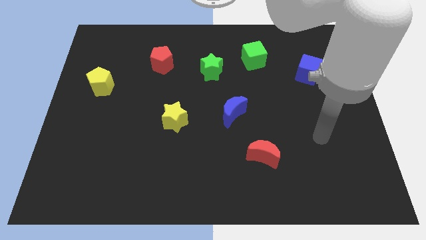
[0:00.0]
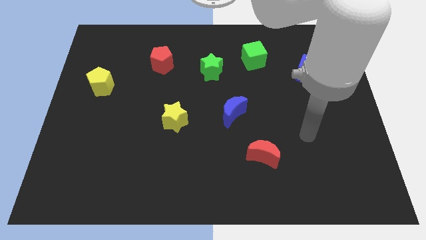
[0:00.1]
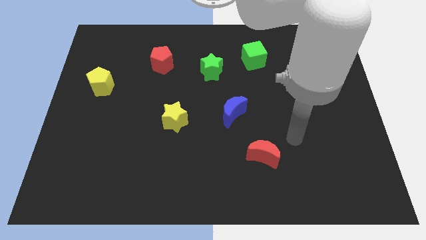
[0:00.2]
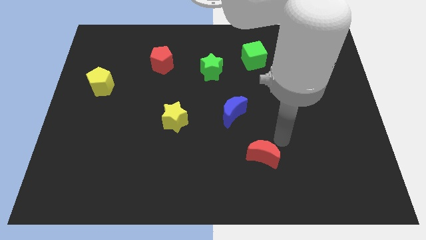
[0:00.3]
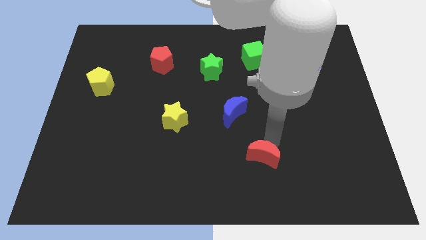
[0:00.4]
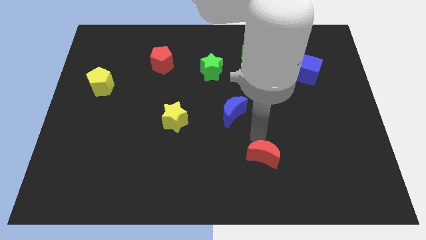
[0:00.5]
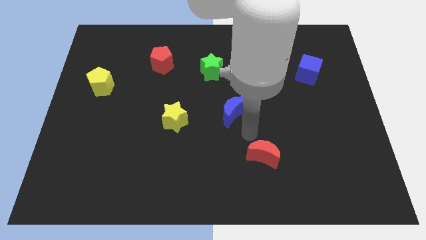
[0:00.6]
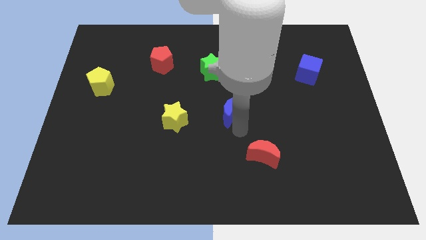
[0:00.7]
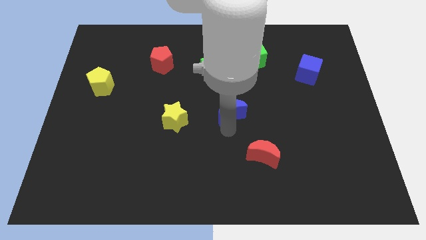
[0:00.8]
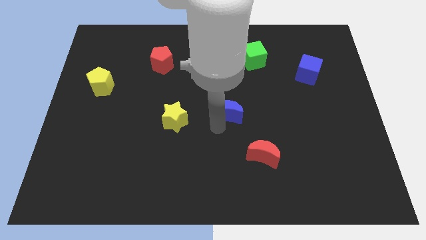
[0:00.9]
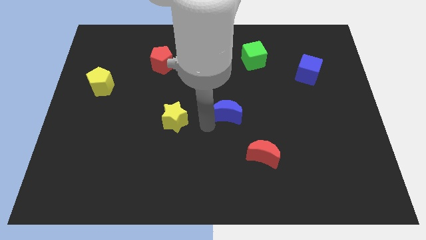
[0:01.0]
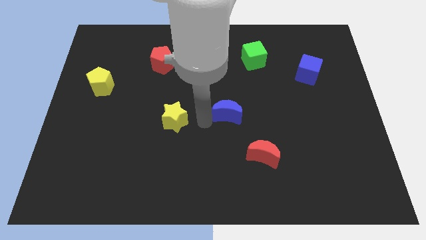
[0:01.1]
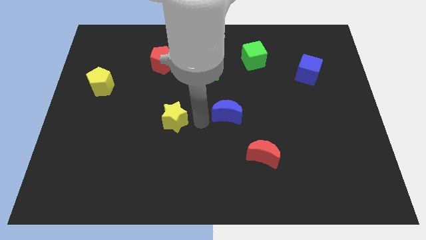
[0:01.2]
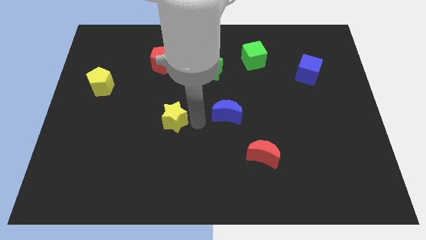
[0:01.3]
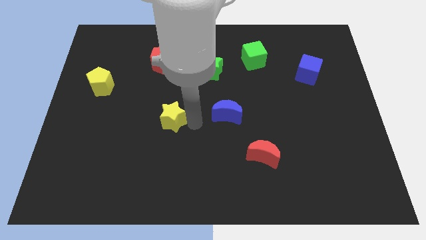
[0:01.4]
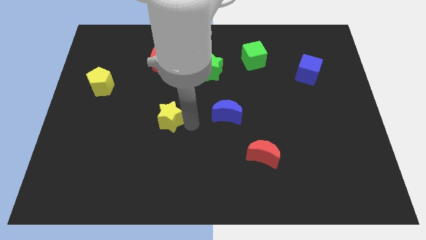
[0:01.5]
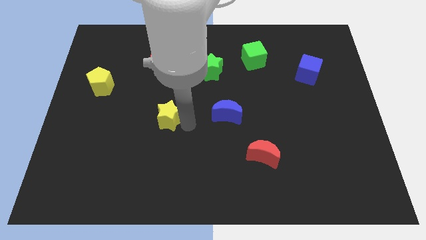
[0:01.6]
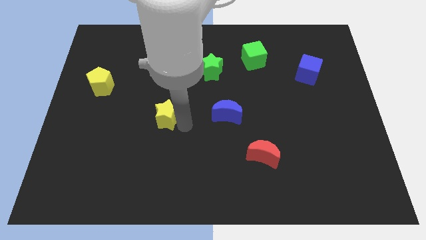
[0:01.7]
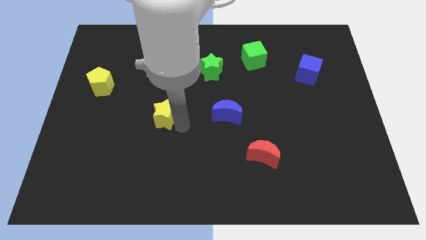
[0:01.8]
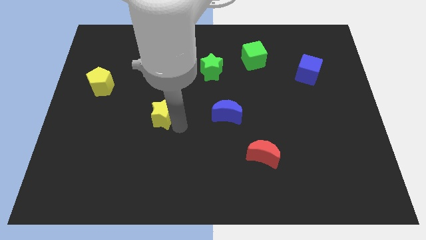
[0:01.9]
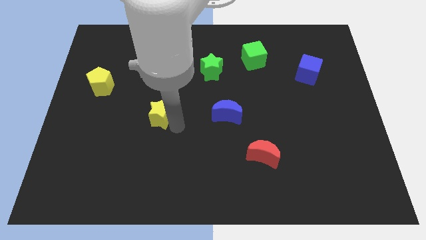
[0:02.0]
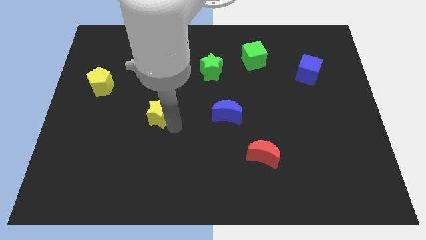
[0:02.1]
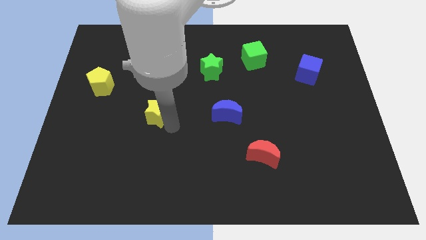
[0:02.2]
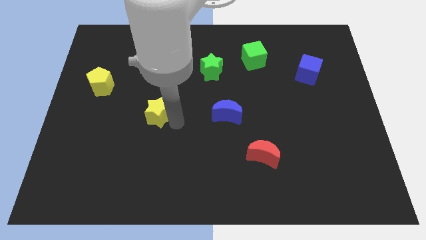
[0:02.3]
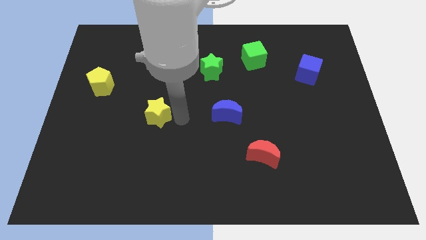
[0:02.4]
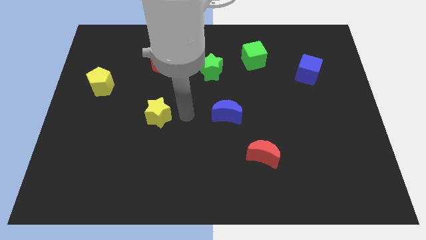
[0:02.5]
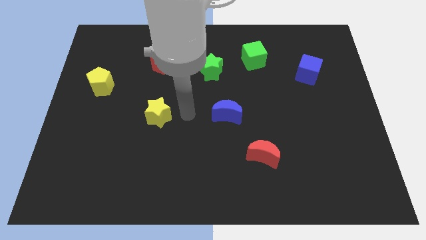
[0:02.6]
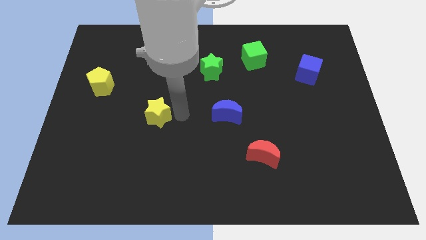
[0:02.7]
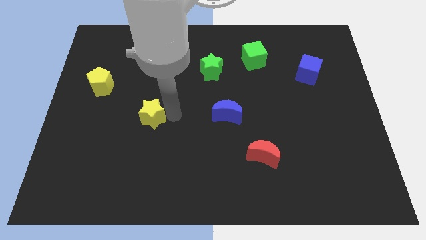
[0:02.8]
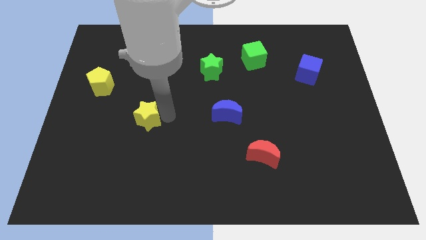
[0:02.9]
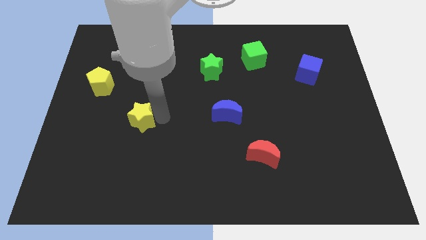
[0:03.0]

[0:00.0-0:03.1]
slightly move the yellow star to the left

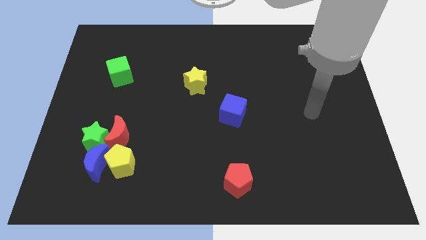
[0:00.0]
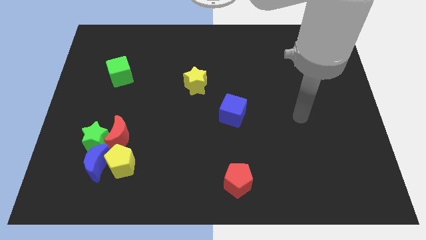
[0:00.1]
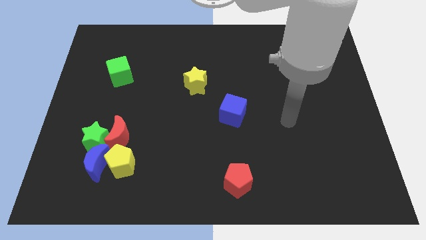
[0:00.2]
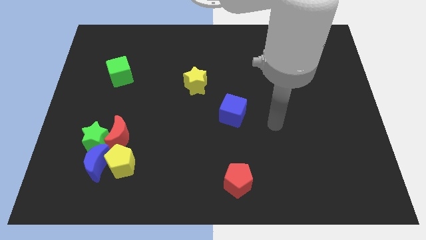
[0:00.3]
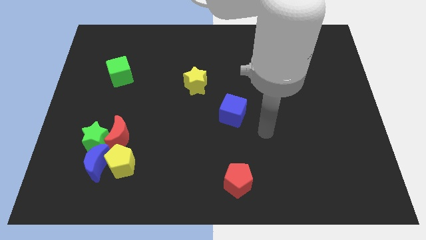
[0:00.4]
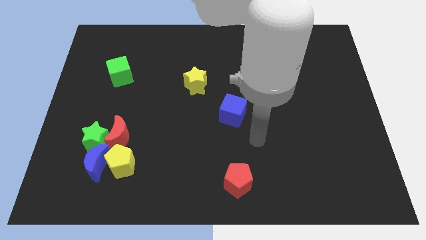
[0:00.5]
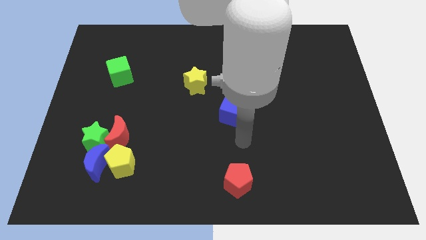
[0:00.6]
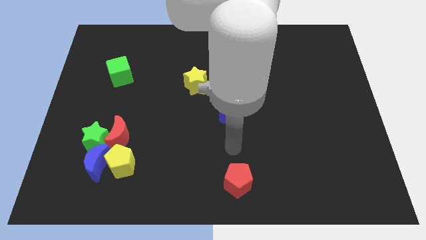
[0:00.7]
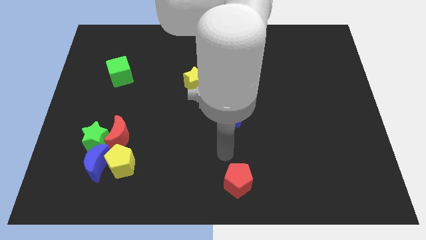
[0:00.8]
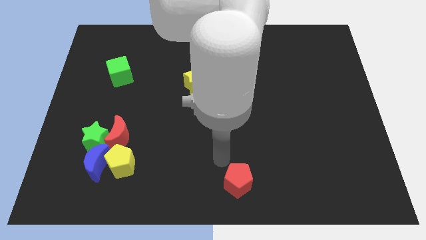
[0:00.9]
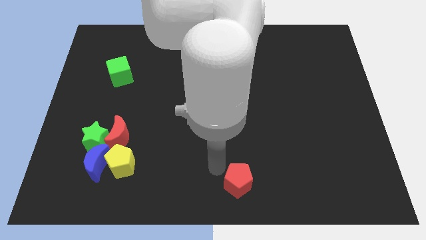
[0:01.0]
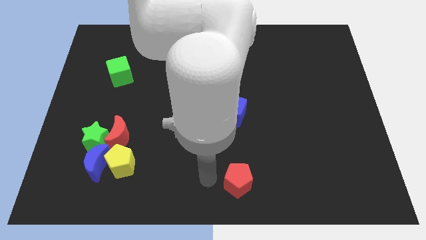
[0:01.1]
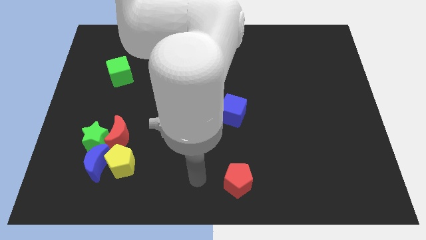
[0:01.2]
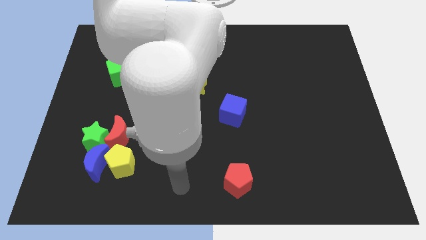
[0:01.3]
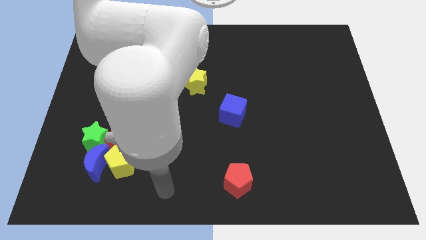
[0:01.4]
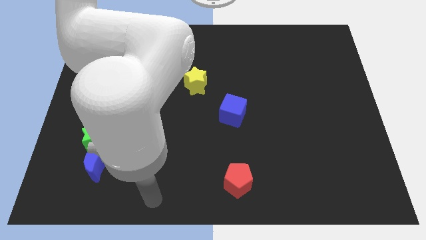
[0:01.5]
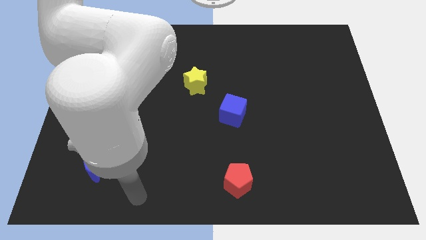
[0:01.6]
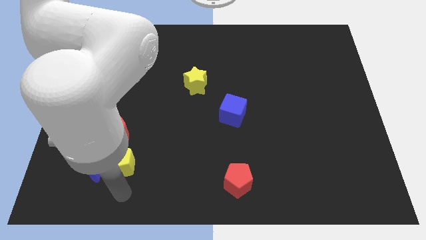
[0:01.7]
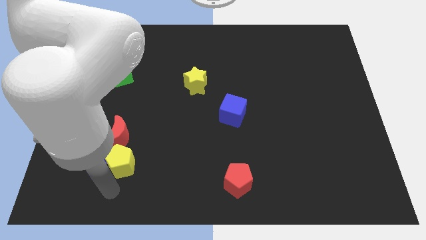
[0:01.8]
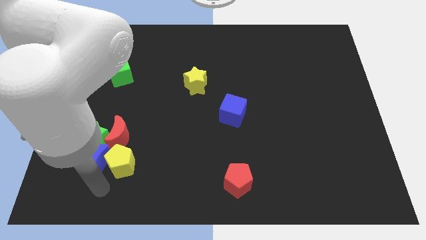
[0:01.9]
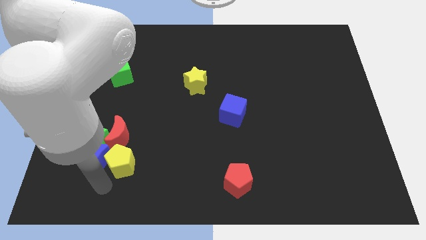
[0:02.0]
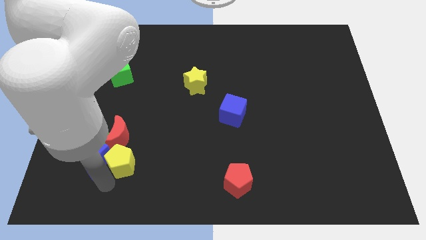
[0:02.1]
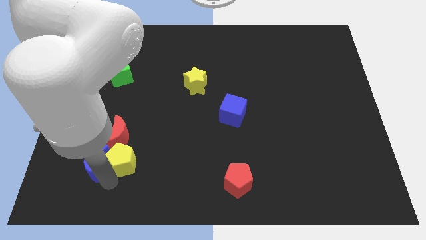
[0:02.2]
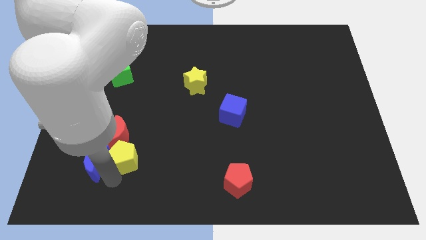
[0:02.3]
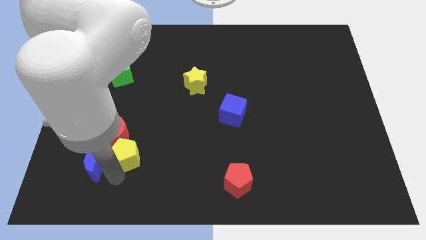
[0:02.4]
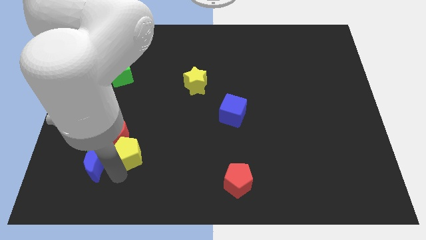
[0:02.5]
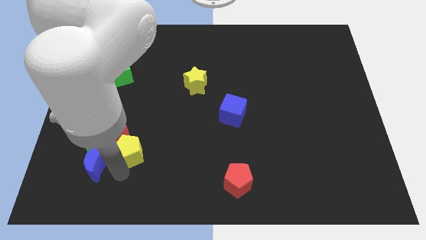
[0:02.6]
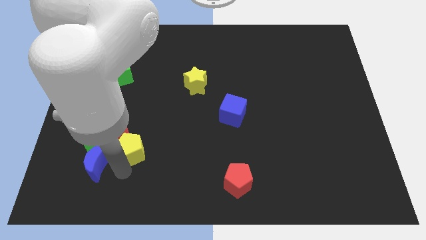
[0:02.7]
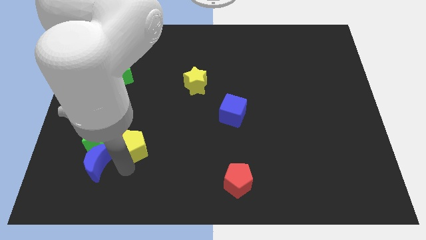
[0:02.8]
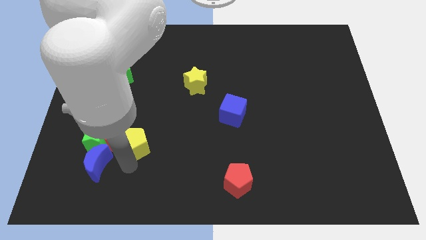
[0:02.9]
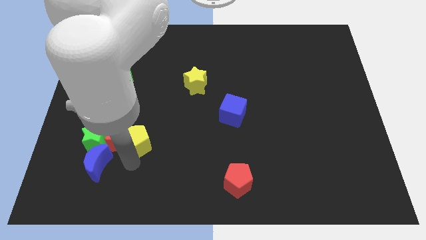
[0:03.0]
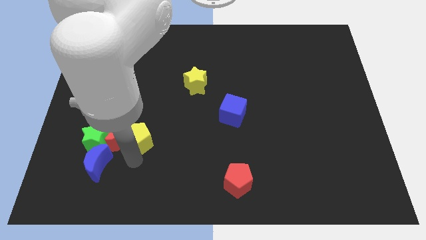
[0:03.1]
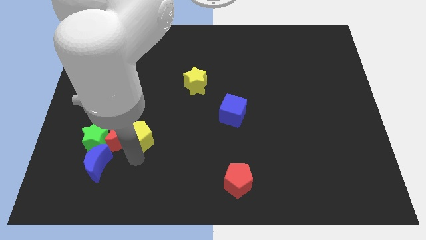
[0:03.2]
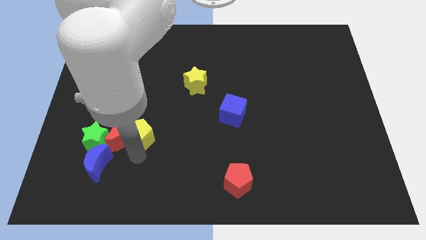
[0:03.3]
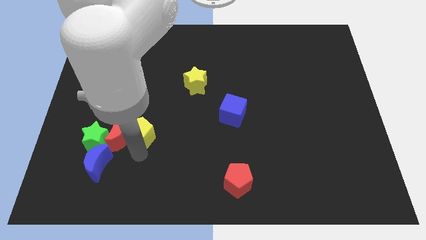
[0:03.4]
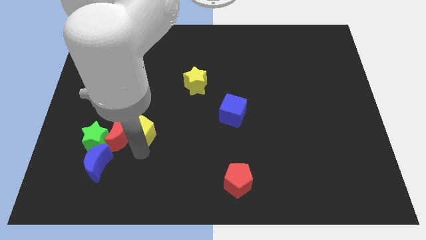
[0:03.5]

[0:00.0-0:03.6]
push the yellow pentagon upwards a little

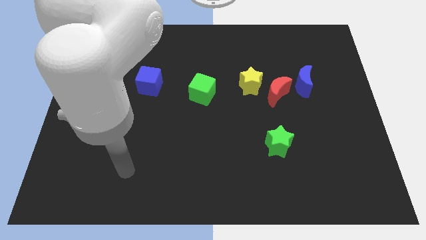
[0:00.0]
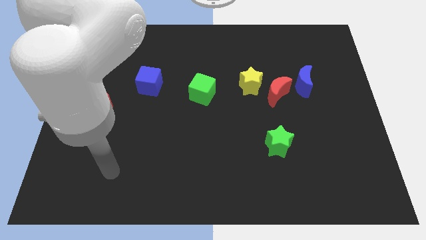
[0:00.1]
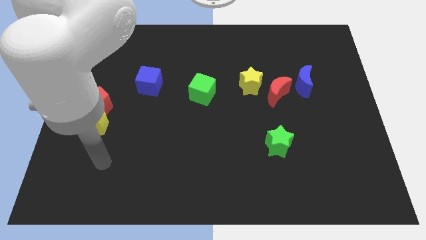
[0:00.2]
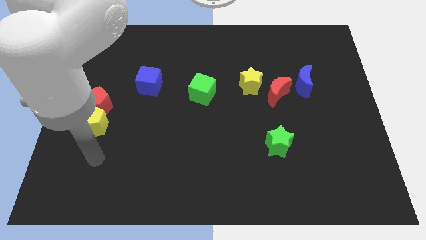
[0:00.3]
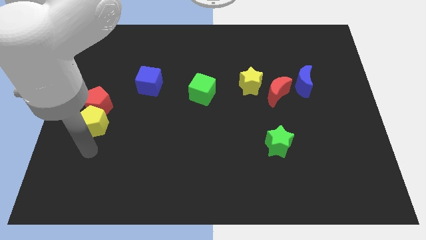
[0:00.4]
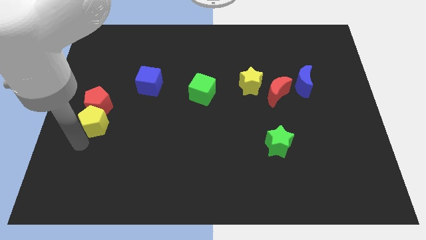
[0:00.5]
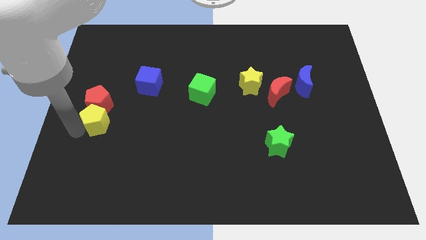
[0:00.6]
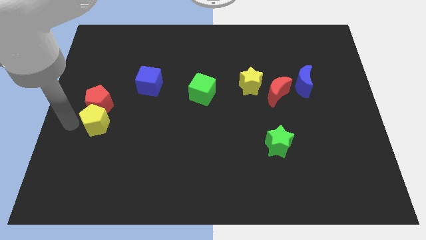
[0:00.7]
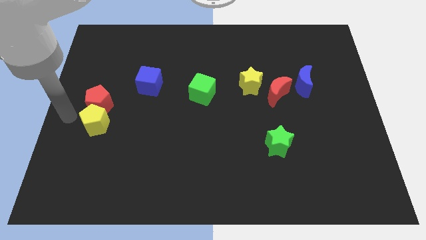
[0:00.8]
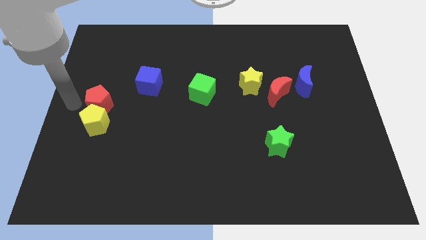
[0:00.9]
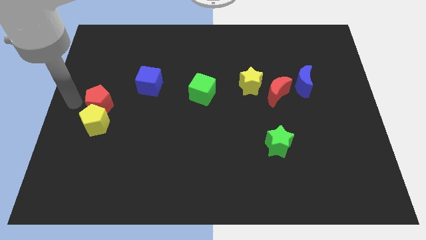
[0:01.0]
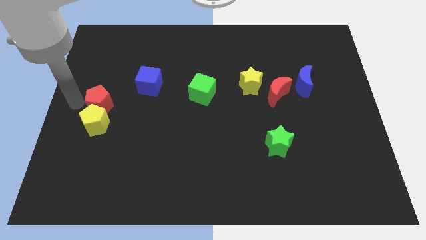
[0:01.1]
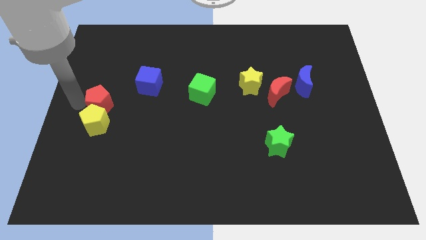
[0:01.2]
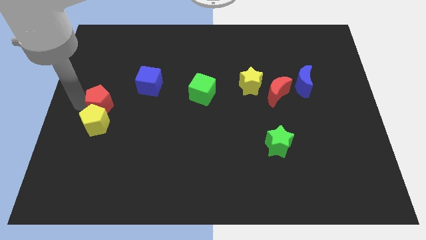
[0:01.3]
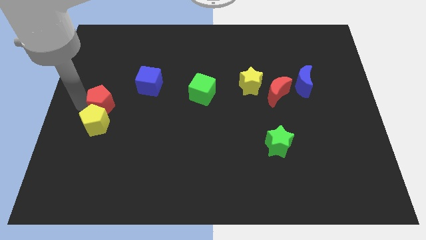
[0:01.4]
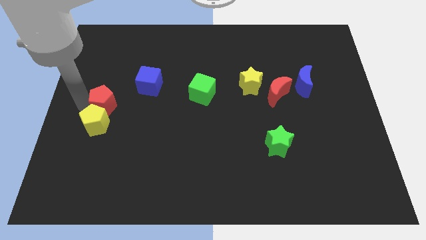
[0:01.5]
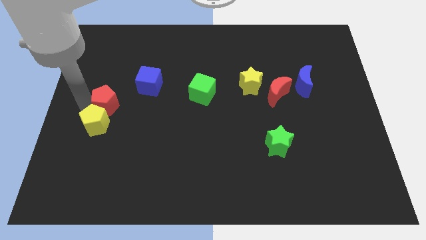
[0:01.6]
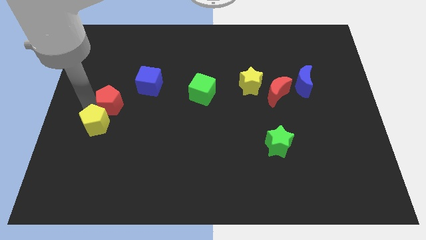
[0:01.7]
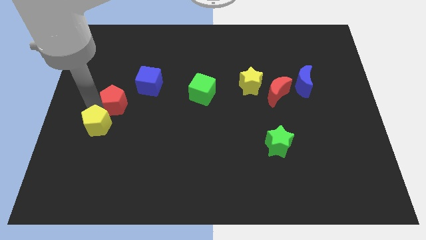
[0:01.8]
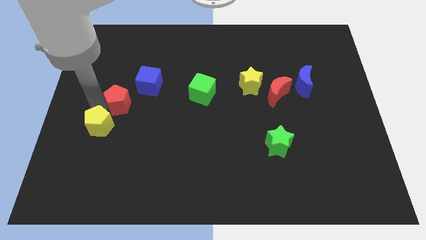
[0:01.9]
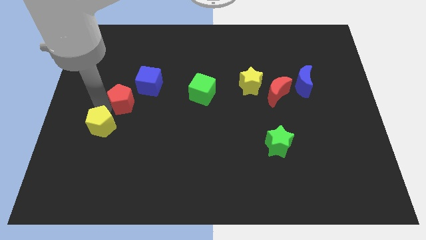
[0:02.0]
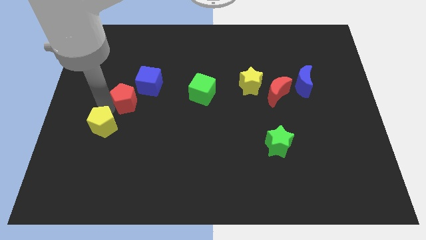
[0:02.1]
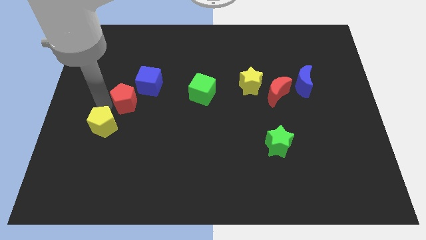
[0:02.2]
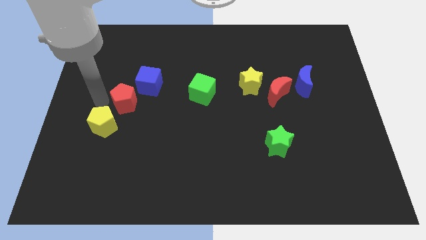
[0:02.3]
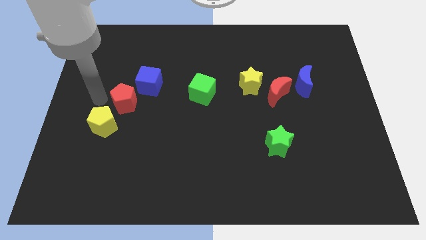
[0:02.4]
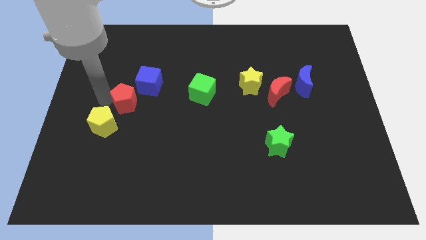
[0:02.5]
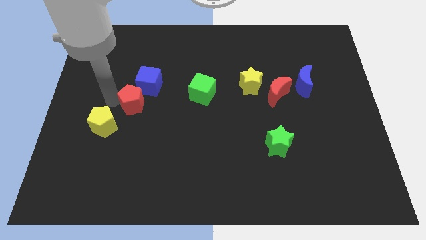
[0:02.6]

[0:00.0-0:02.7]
slide the red pentagon somewhat right
